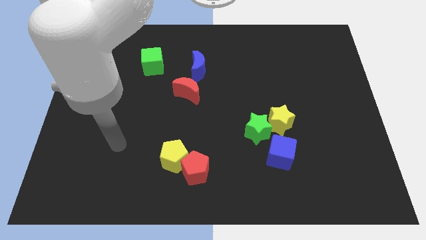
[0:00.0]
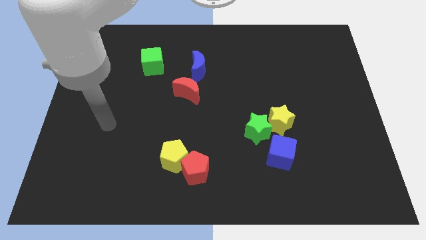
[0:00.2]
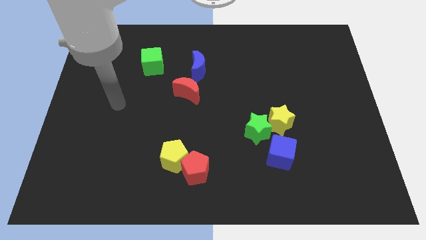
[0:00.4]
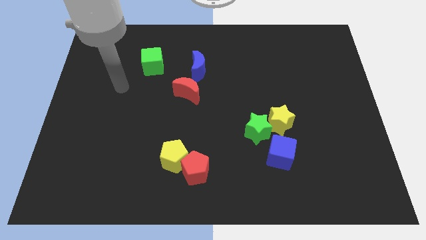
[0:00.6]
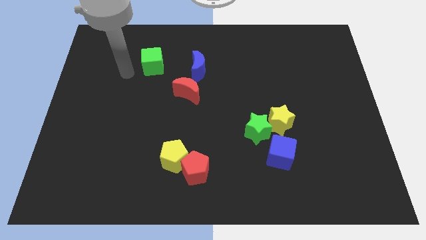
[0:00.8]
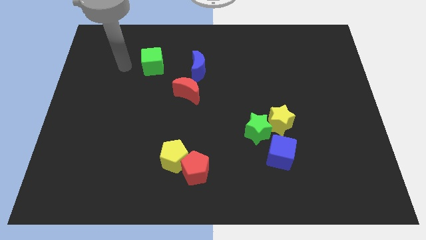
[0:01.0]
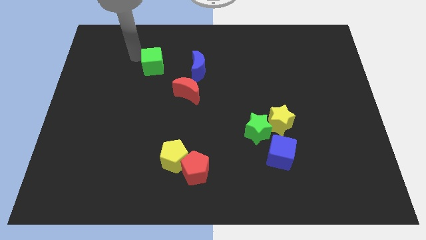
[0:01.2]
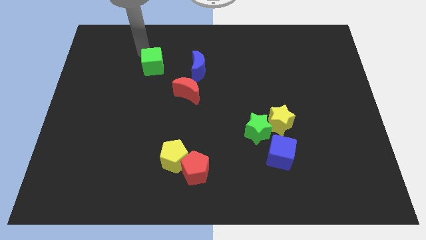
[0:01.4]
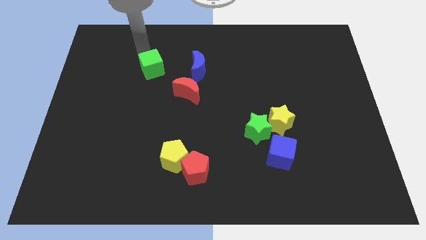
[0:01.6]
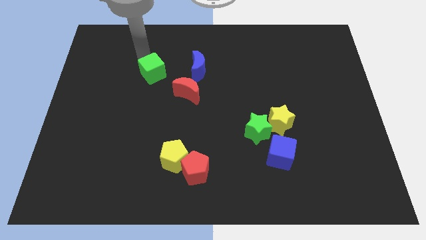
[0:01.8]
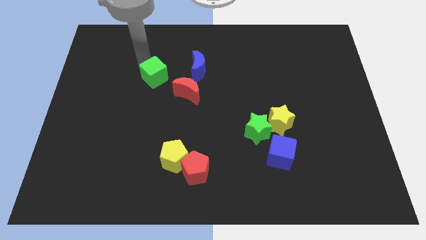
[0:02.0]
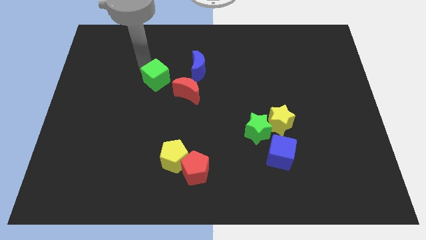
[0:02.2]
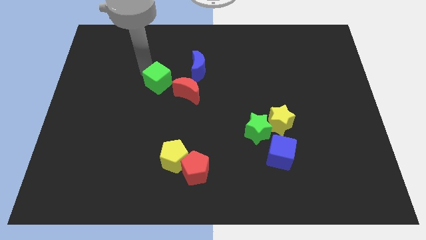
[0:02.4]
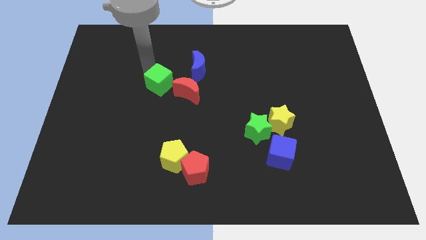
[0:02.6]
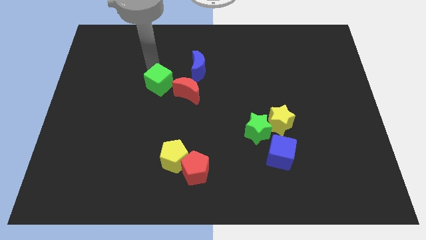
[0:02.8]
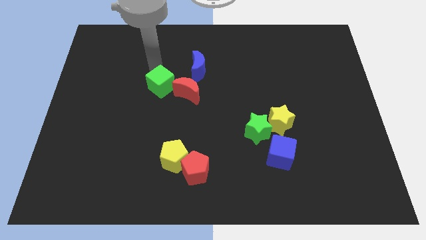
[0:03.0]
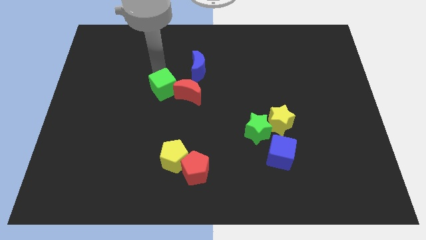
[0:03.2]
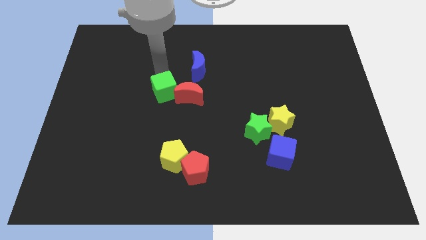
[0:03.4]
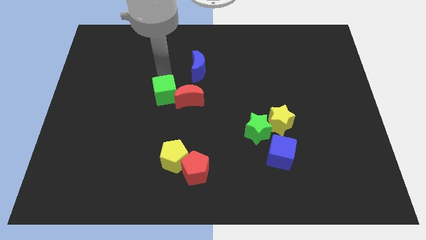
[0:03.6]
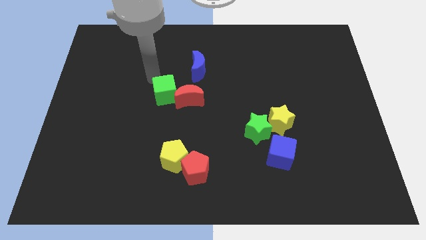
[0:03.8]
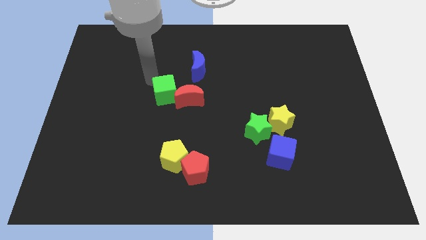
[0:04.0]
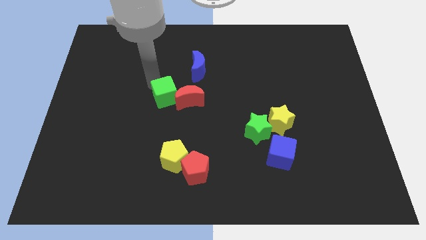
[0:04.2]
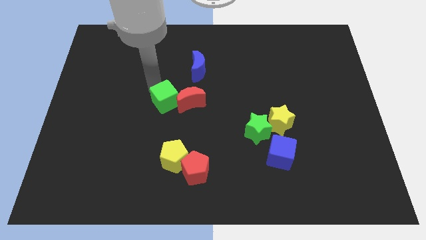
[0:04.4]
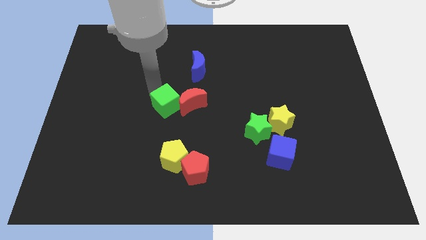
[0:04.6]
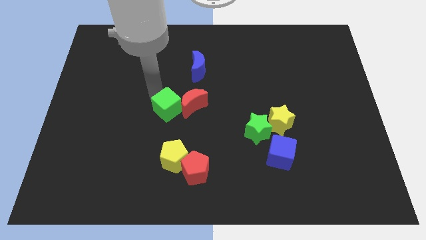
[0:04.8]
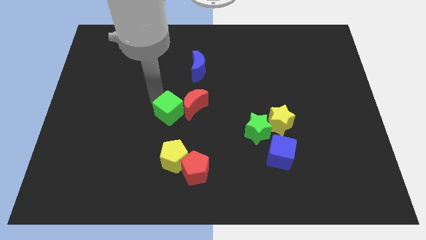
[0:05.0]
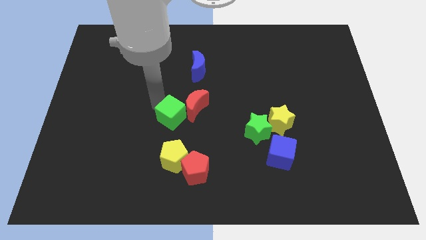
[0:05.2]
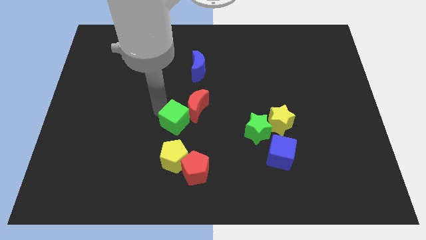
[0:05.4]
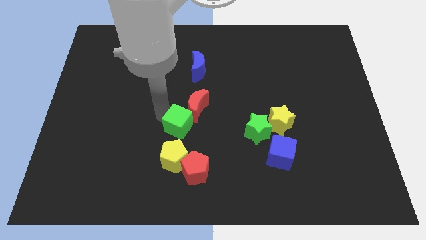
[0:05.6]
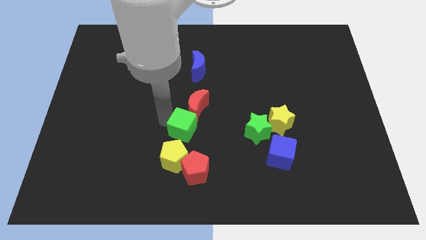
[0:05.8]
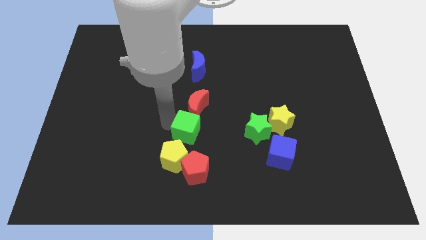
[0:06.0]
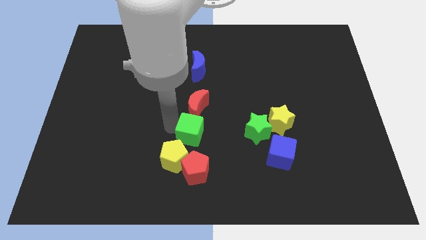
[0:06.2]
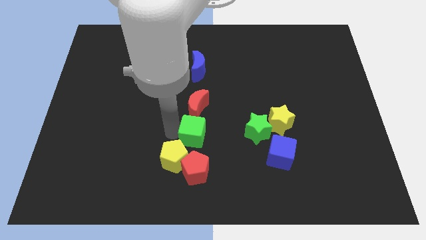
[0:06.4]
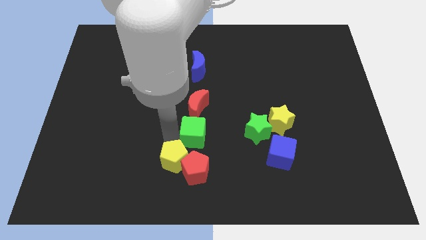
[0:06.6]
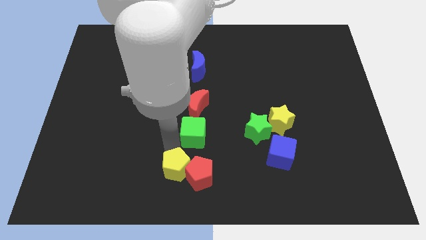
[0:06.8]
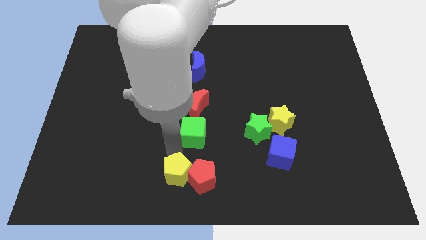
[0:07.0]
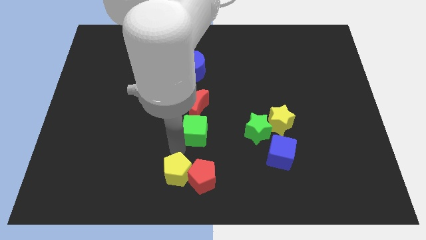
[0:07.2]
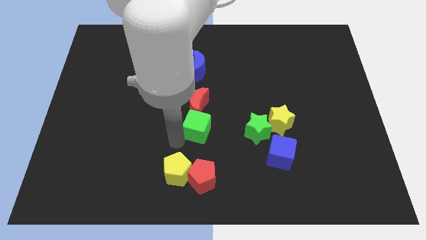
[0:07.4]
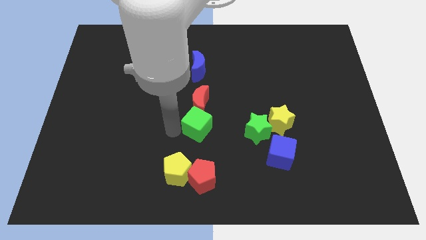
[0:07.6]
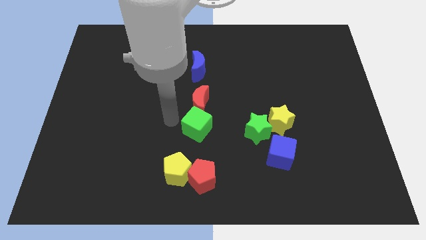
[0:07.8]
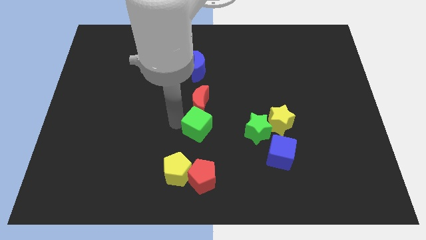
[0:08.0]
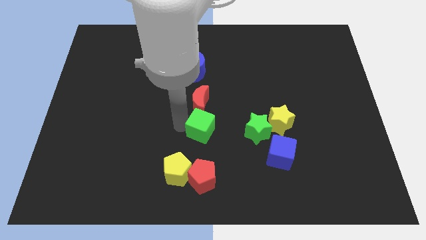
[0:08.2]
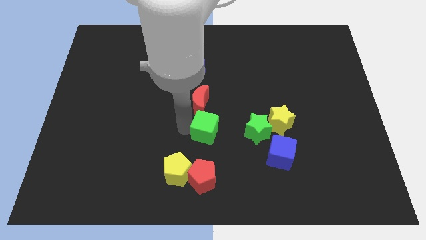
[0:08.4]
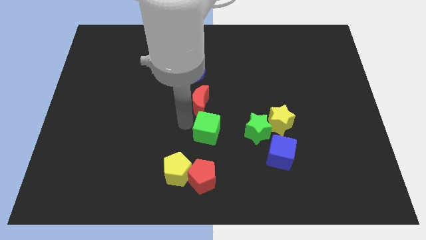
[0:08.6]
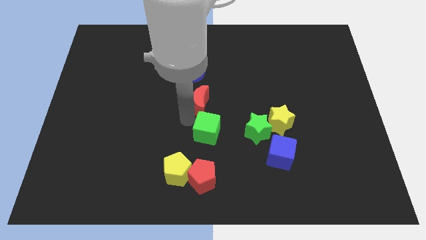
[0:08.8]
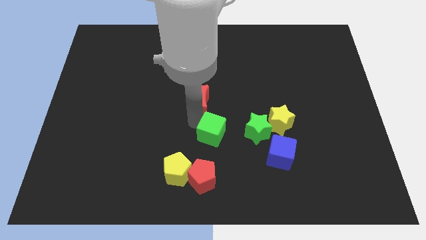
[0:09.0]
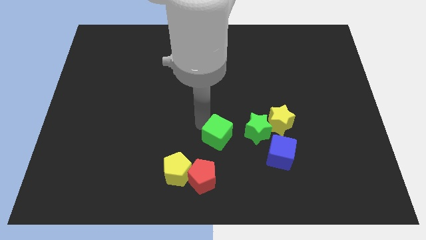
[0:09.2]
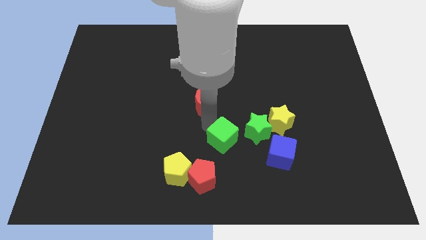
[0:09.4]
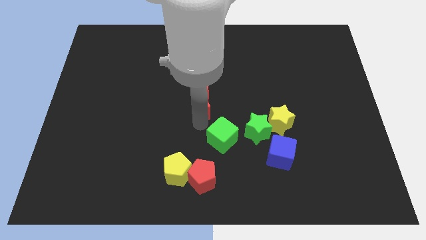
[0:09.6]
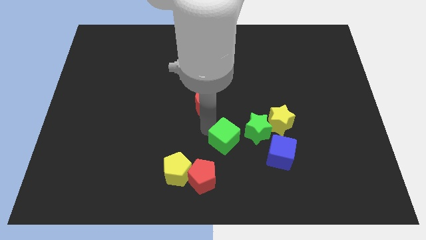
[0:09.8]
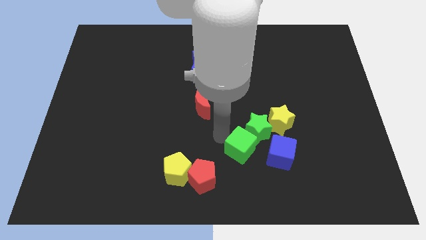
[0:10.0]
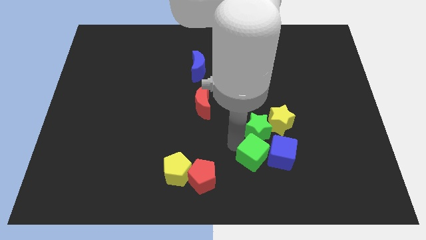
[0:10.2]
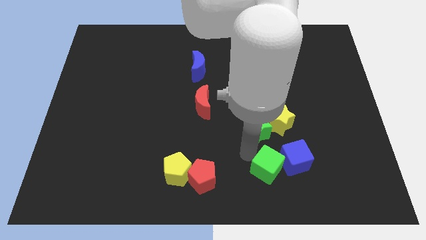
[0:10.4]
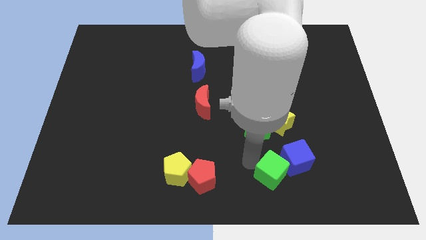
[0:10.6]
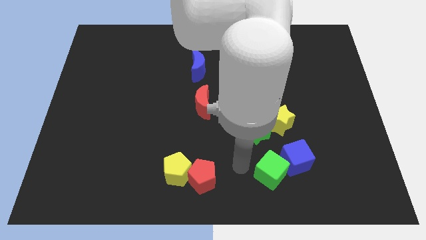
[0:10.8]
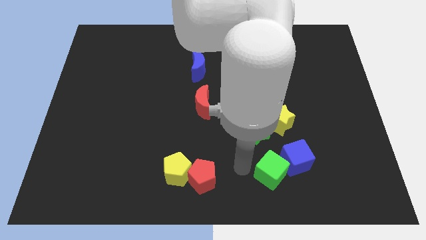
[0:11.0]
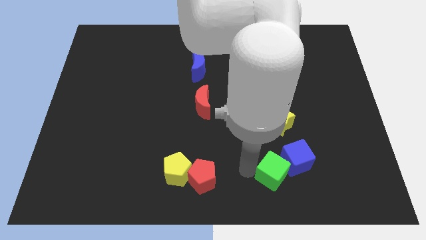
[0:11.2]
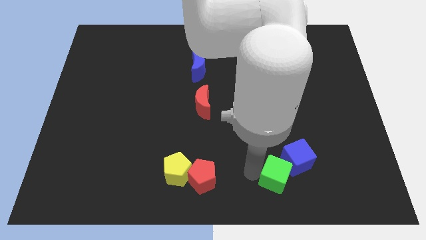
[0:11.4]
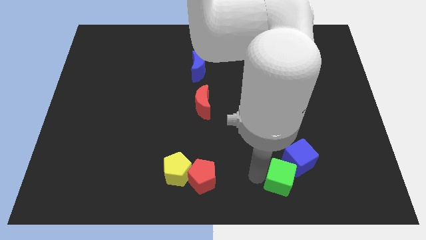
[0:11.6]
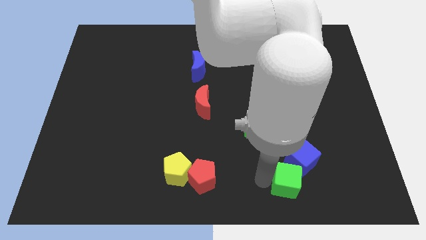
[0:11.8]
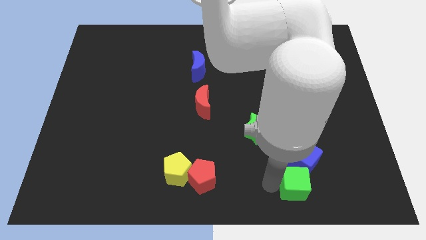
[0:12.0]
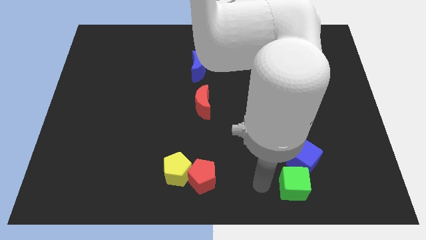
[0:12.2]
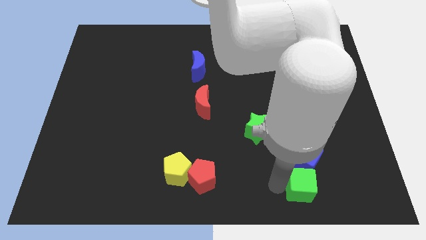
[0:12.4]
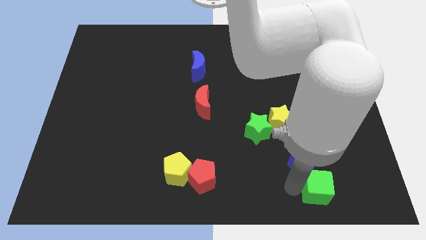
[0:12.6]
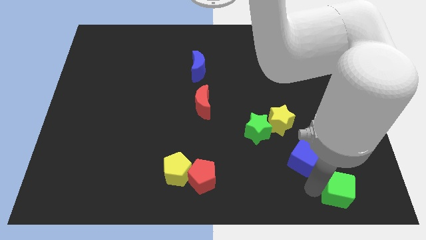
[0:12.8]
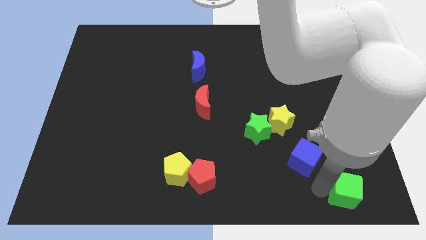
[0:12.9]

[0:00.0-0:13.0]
move the green cube to the bottom right
